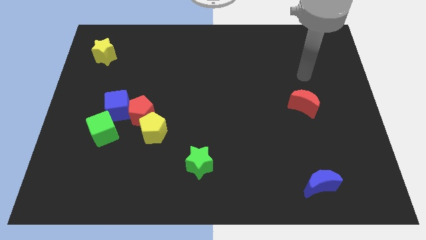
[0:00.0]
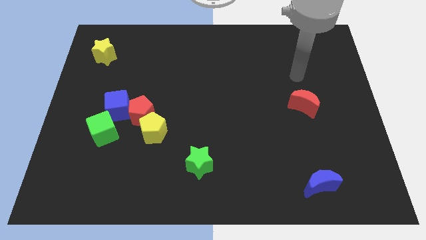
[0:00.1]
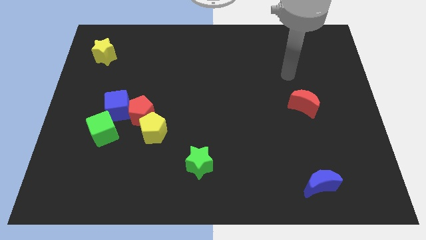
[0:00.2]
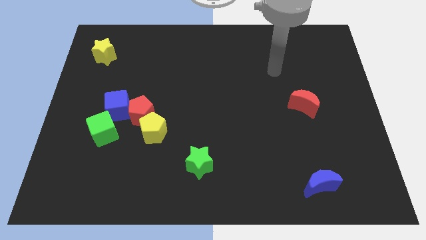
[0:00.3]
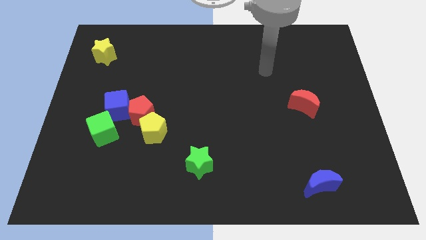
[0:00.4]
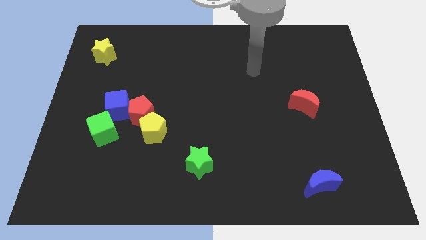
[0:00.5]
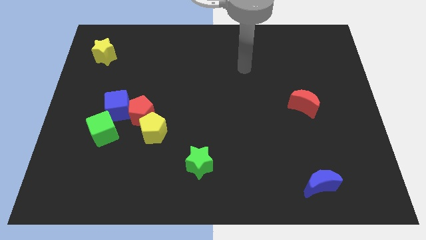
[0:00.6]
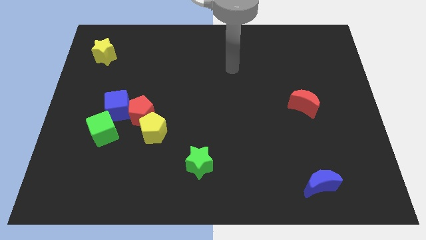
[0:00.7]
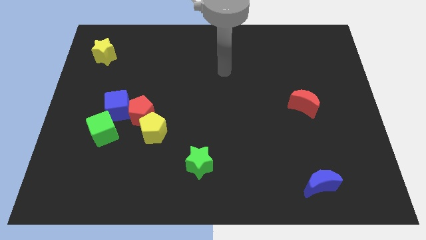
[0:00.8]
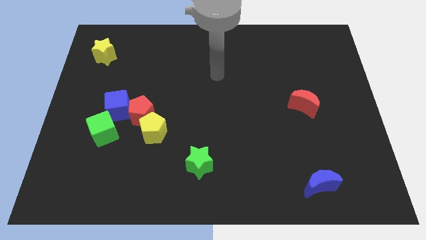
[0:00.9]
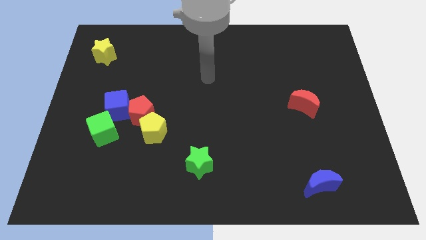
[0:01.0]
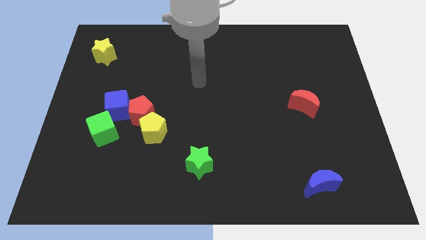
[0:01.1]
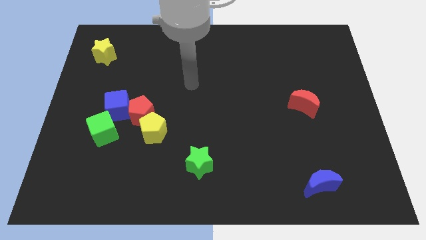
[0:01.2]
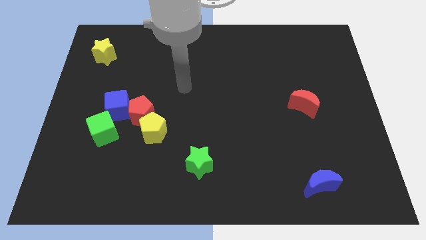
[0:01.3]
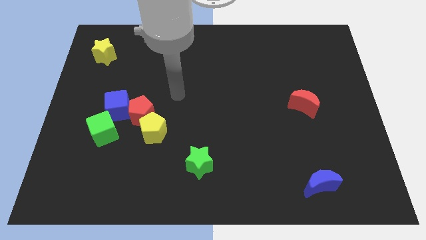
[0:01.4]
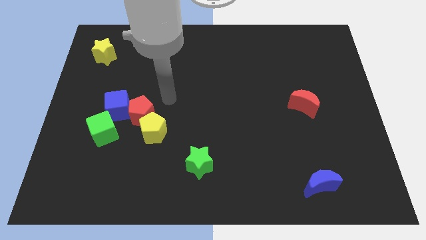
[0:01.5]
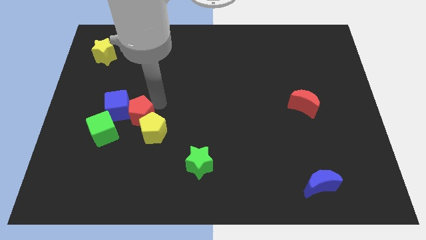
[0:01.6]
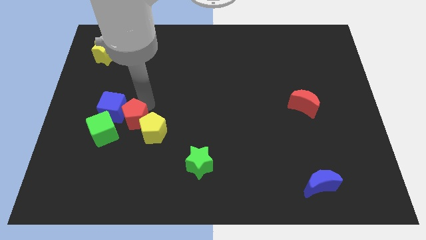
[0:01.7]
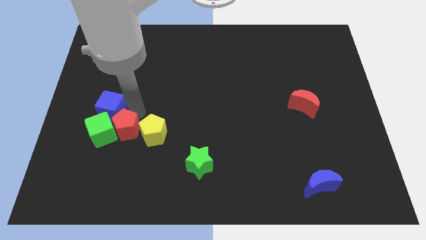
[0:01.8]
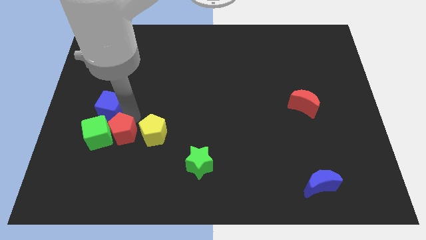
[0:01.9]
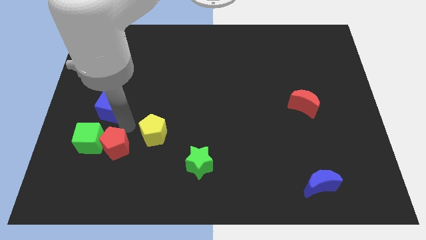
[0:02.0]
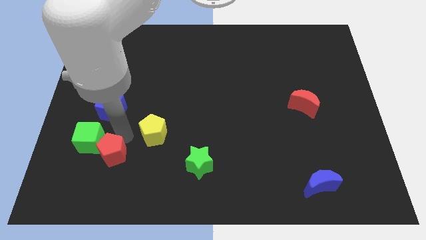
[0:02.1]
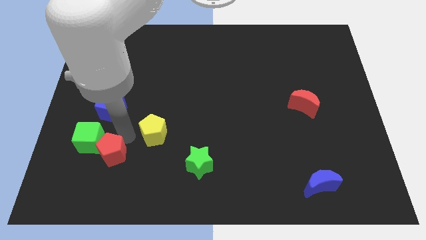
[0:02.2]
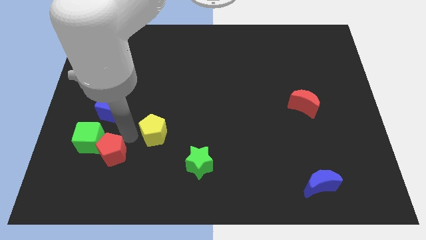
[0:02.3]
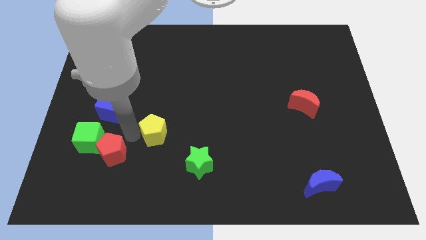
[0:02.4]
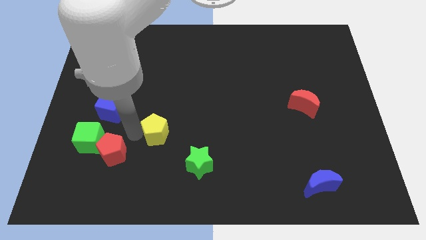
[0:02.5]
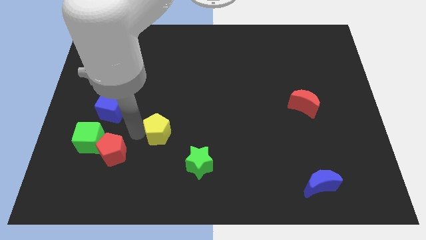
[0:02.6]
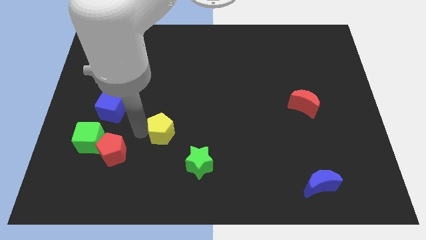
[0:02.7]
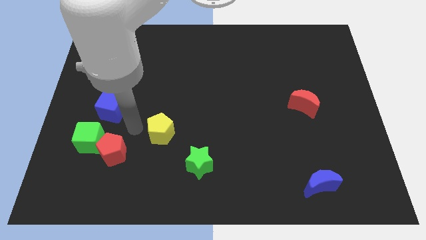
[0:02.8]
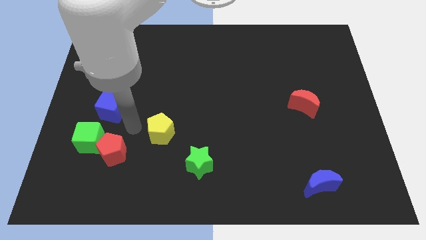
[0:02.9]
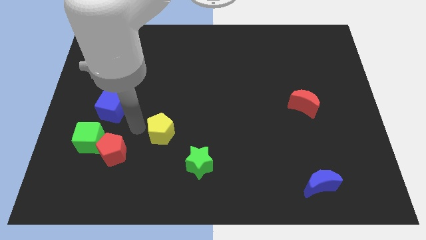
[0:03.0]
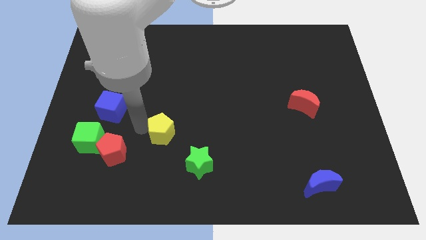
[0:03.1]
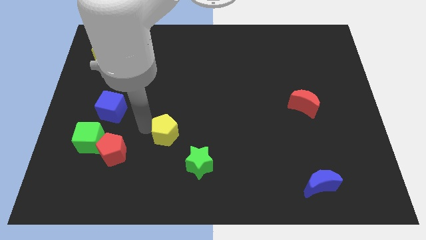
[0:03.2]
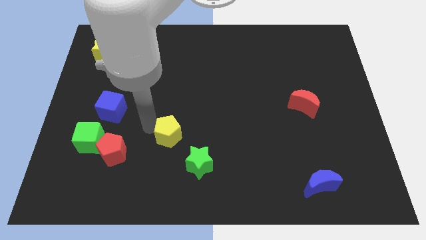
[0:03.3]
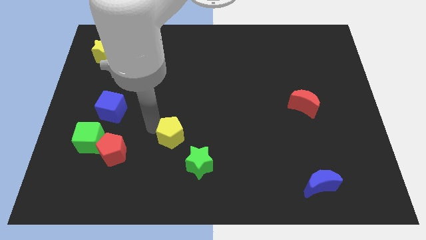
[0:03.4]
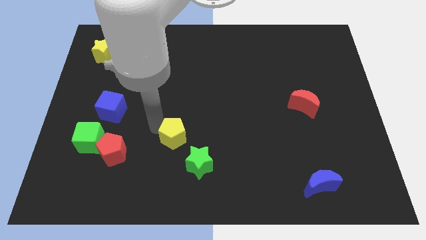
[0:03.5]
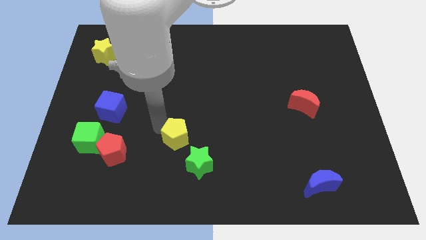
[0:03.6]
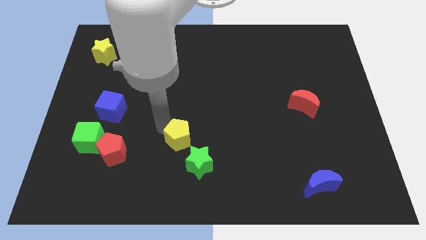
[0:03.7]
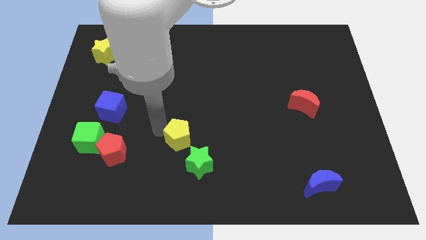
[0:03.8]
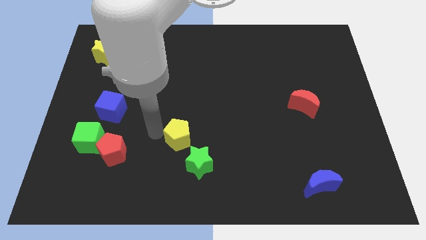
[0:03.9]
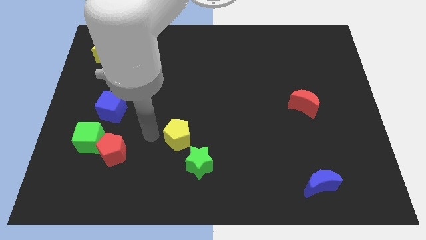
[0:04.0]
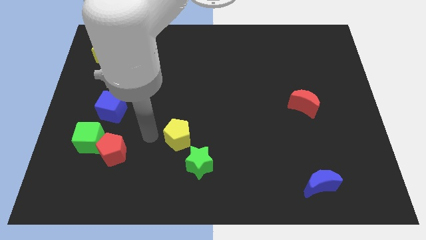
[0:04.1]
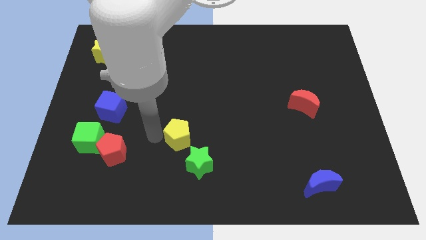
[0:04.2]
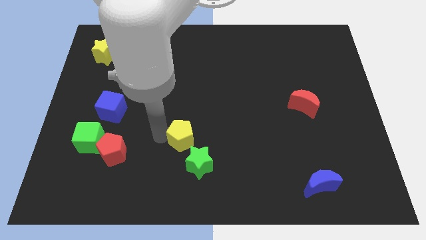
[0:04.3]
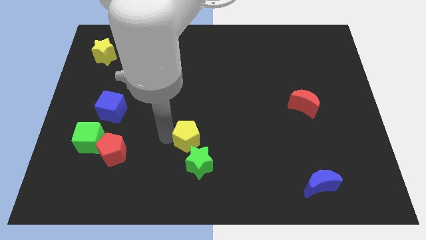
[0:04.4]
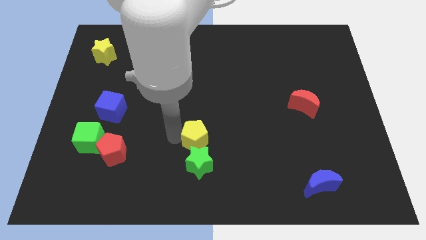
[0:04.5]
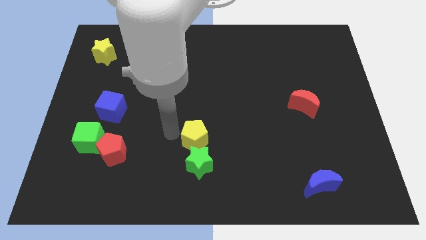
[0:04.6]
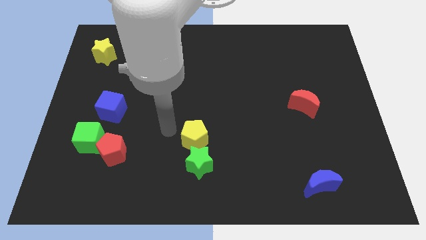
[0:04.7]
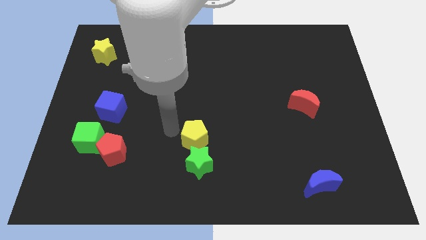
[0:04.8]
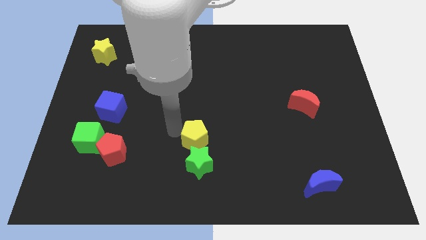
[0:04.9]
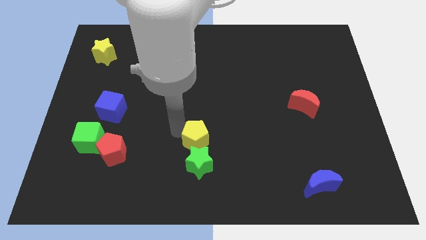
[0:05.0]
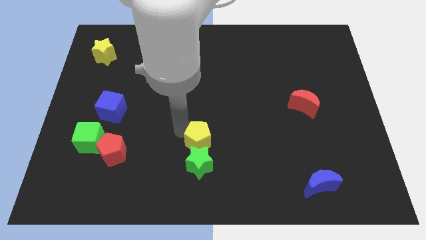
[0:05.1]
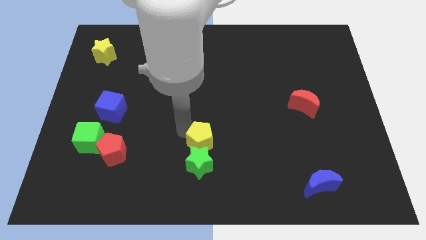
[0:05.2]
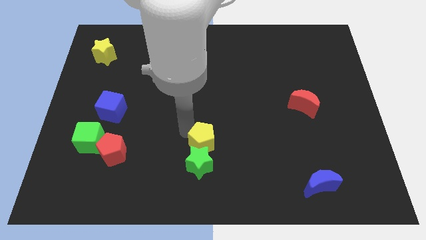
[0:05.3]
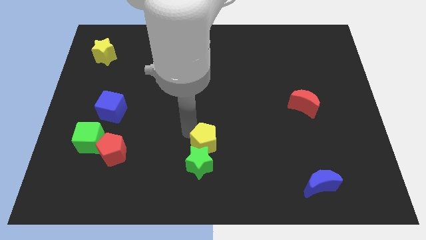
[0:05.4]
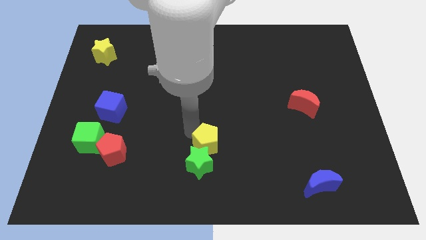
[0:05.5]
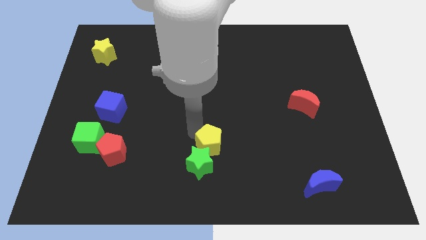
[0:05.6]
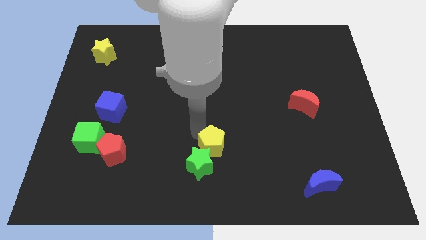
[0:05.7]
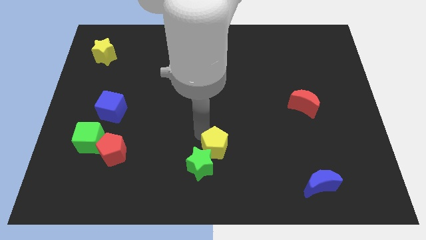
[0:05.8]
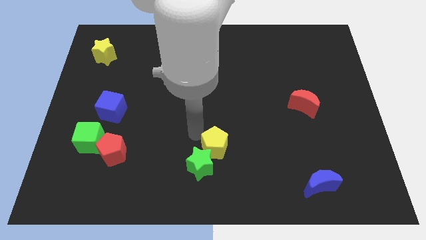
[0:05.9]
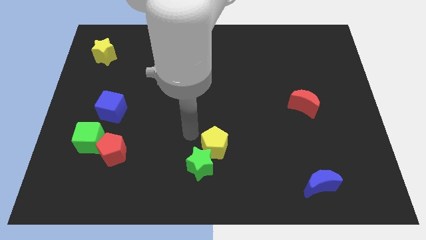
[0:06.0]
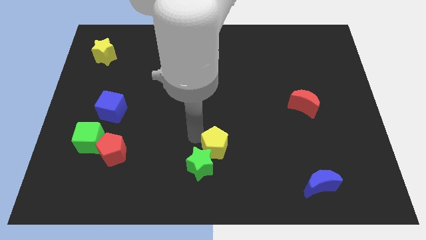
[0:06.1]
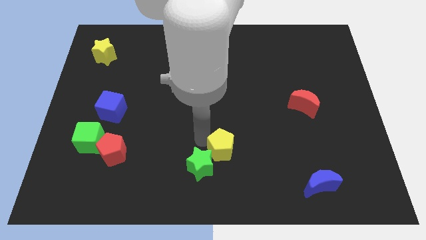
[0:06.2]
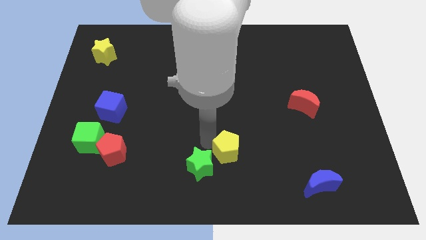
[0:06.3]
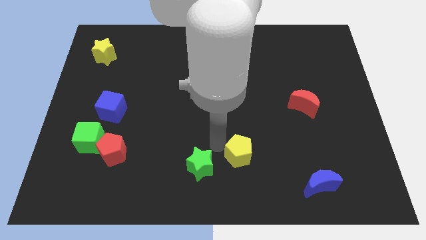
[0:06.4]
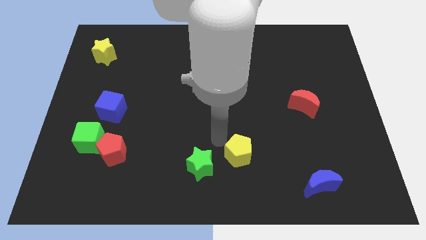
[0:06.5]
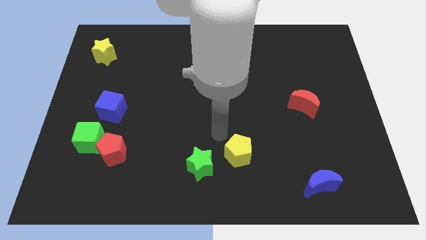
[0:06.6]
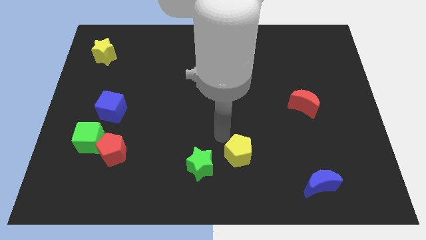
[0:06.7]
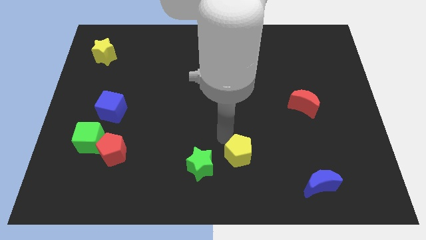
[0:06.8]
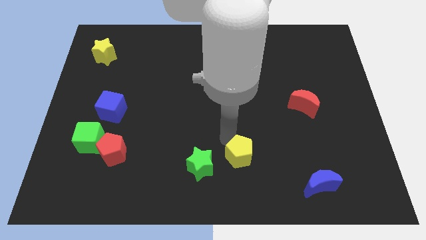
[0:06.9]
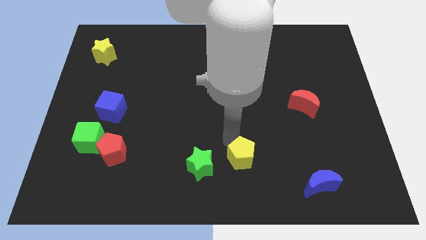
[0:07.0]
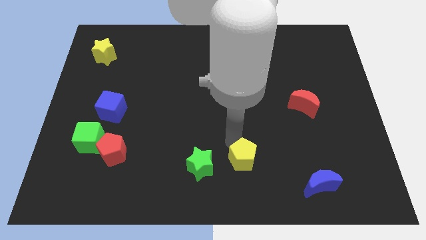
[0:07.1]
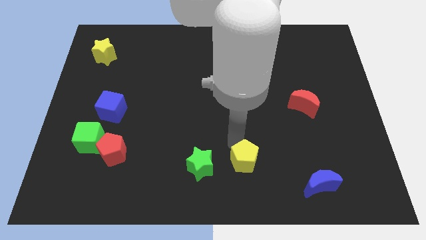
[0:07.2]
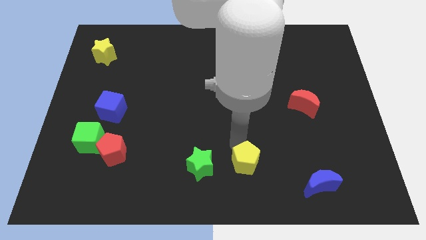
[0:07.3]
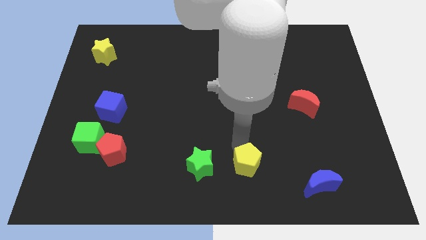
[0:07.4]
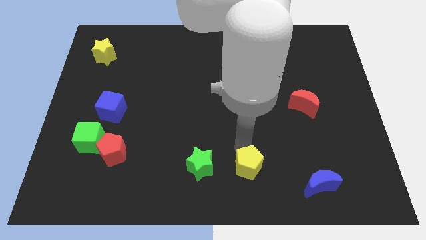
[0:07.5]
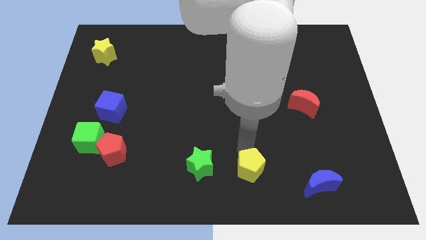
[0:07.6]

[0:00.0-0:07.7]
move the yellow pentagon to the left side of the blue moon
